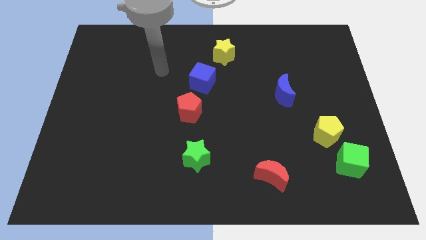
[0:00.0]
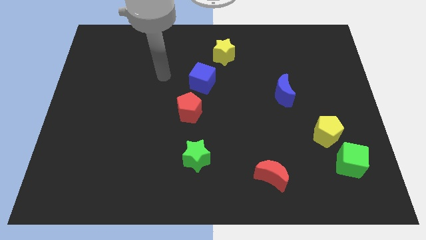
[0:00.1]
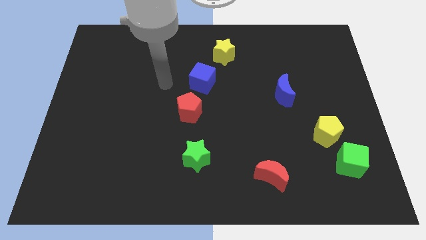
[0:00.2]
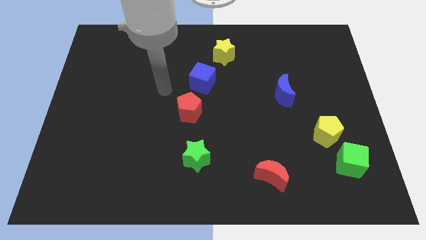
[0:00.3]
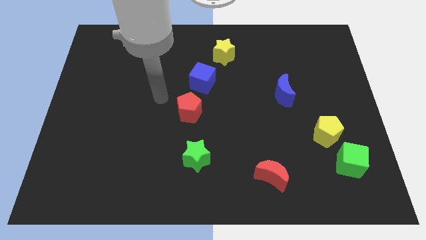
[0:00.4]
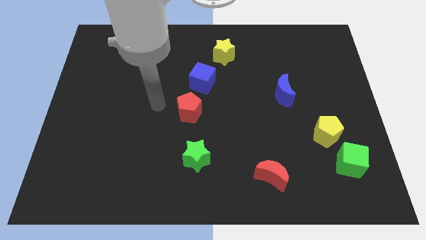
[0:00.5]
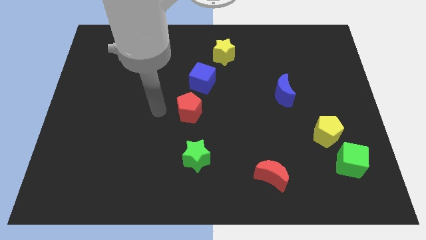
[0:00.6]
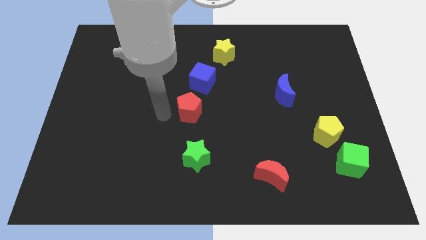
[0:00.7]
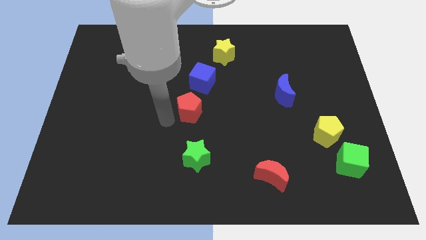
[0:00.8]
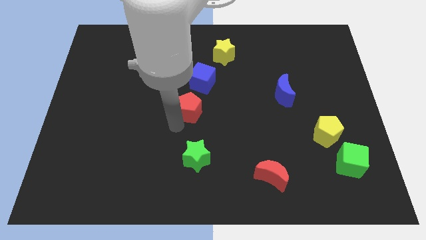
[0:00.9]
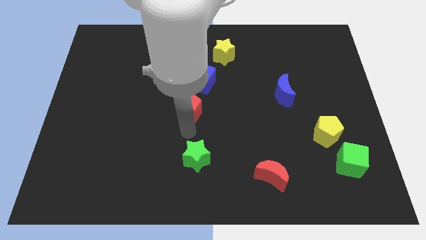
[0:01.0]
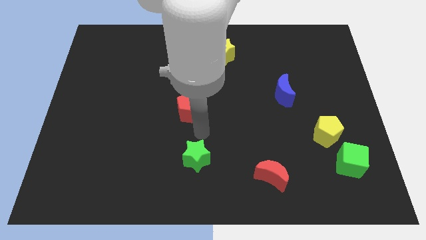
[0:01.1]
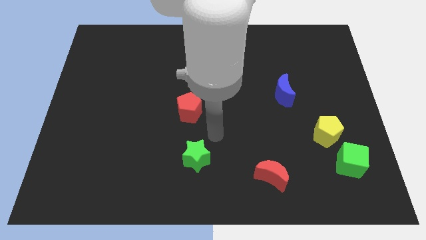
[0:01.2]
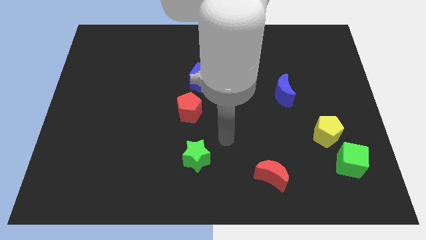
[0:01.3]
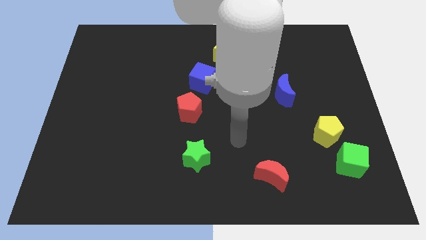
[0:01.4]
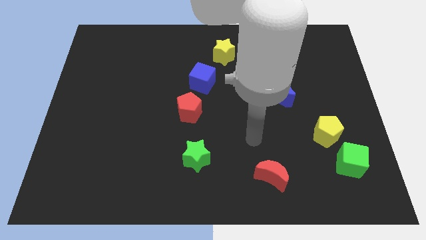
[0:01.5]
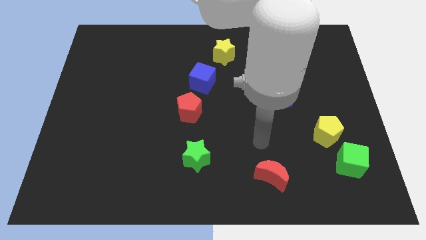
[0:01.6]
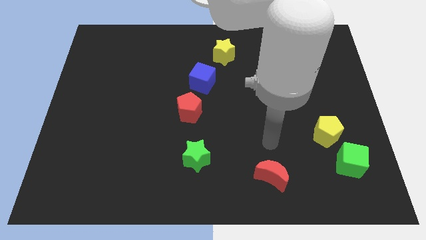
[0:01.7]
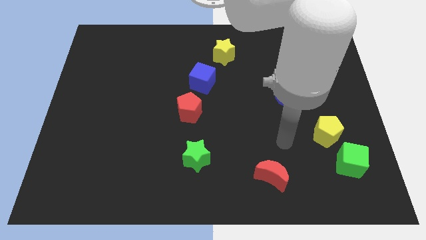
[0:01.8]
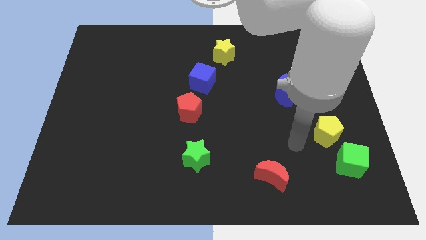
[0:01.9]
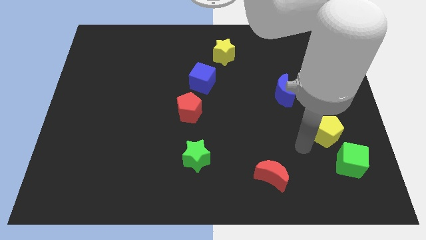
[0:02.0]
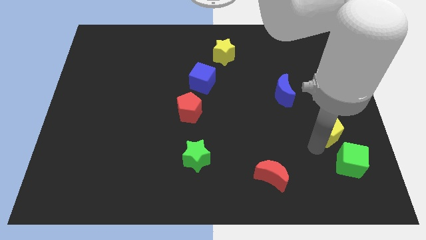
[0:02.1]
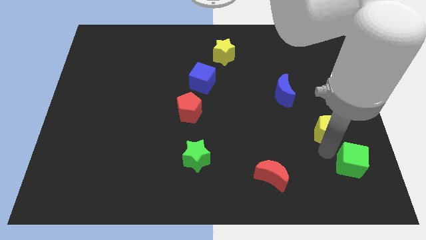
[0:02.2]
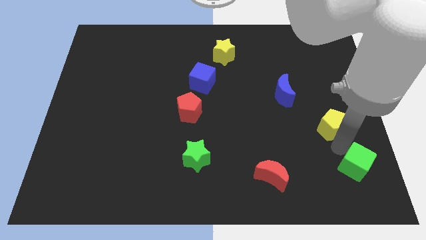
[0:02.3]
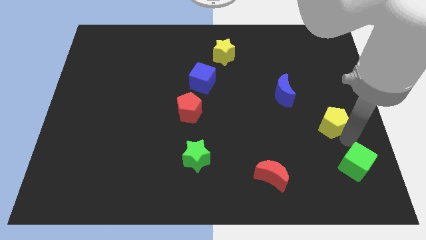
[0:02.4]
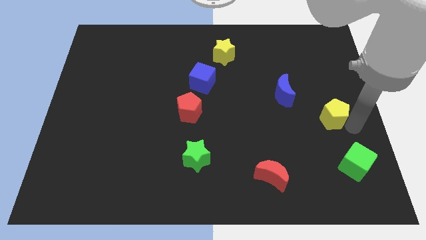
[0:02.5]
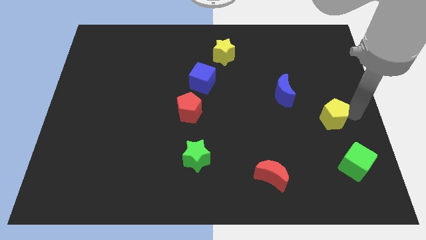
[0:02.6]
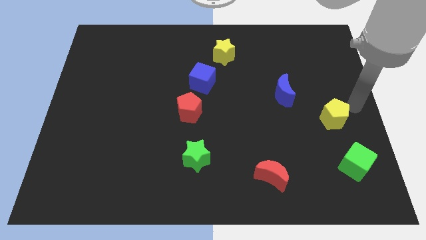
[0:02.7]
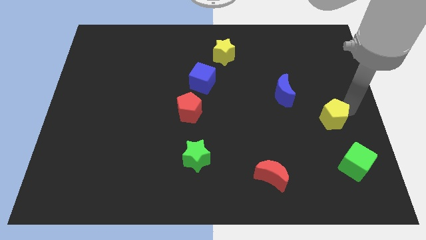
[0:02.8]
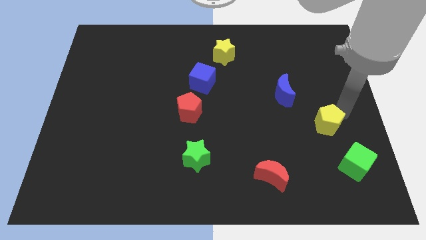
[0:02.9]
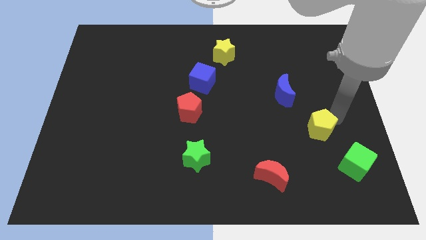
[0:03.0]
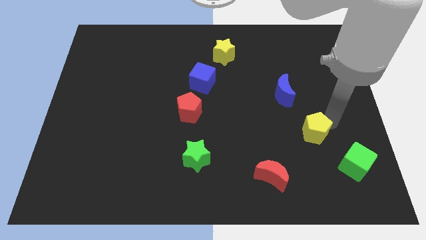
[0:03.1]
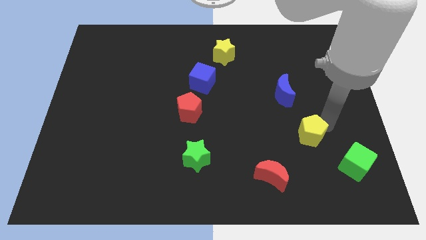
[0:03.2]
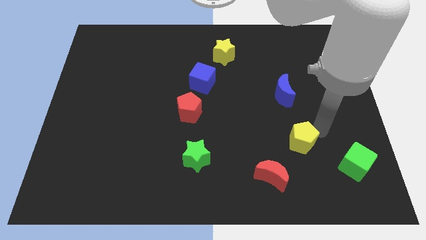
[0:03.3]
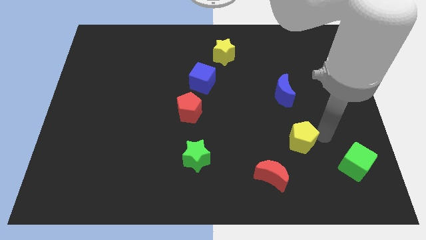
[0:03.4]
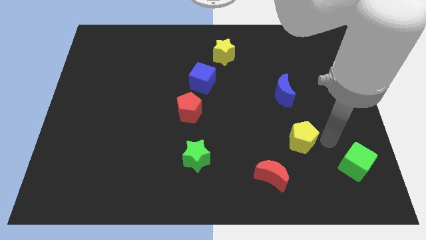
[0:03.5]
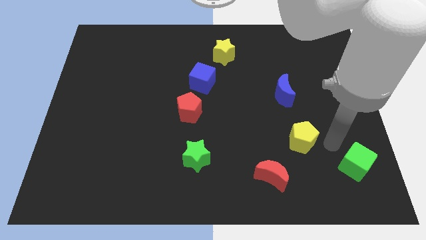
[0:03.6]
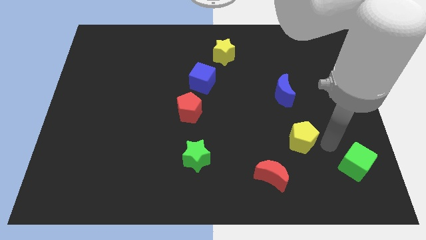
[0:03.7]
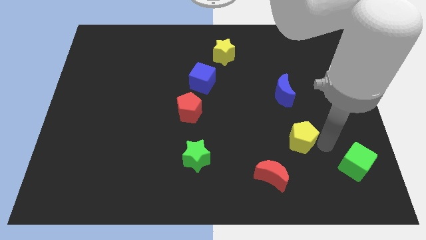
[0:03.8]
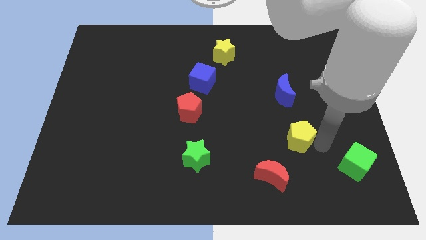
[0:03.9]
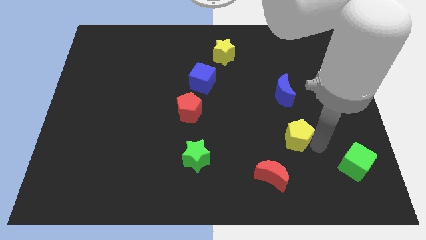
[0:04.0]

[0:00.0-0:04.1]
move the yellow pentagon a bit to the left

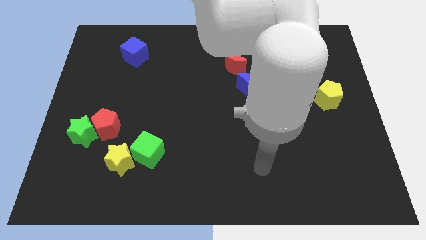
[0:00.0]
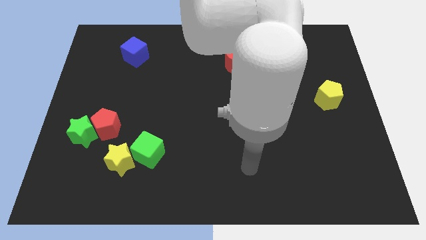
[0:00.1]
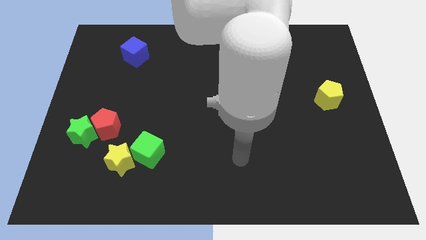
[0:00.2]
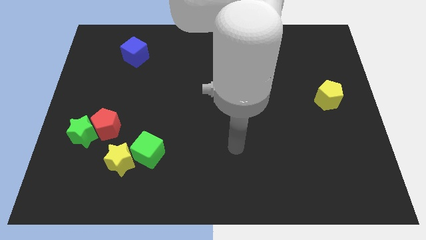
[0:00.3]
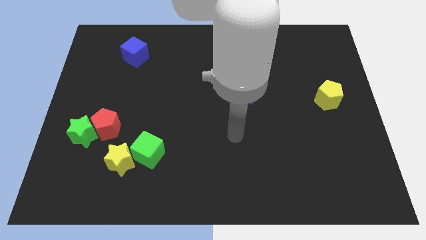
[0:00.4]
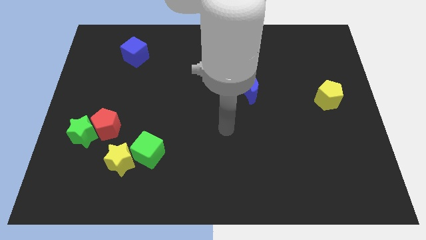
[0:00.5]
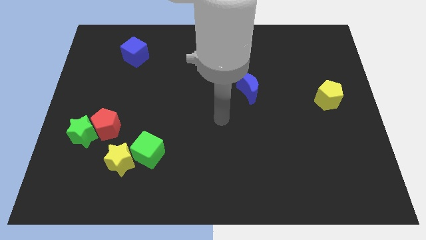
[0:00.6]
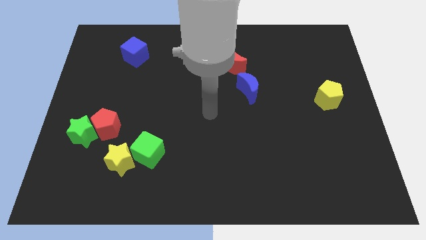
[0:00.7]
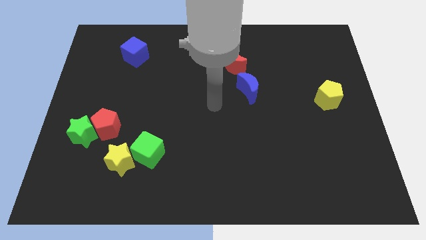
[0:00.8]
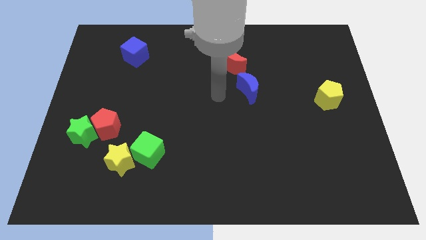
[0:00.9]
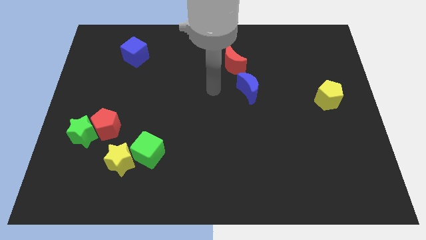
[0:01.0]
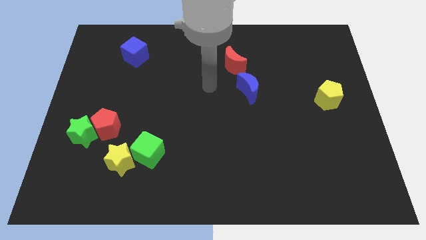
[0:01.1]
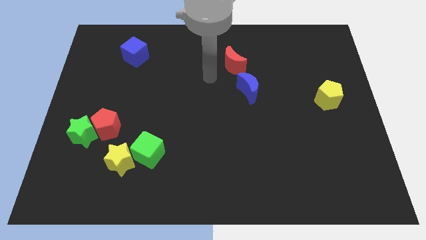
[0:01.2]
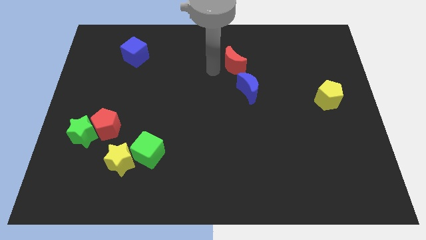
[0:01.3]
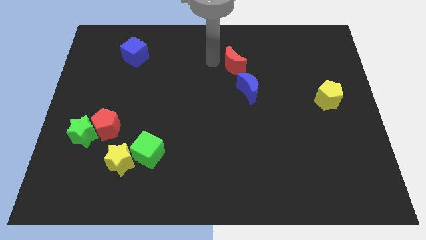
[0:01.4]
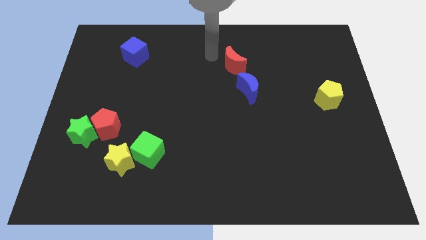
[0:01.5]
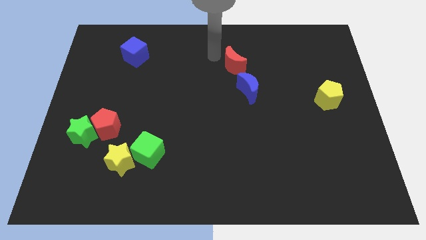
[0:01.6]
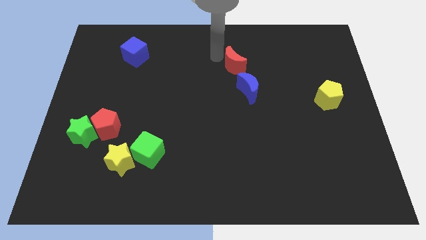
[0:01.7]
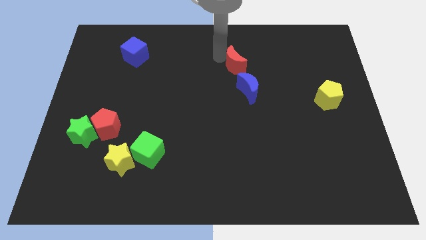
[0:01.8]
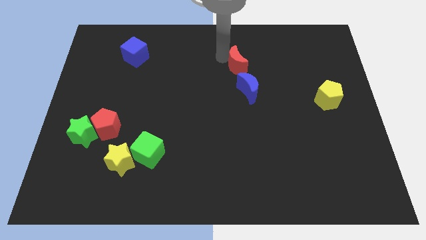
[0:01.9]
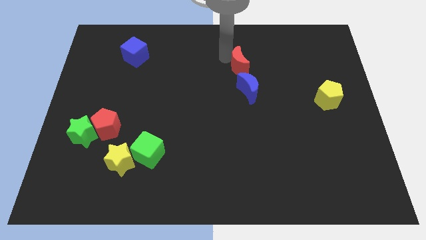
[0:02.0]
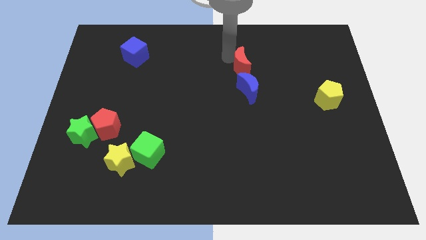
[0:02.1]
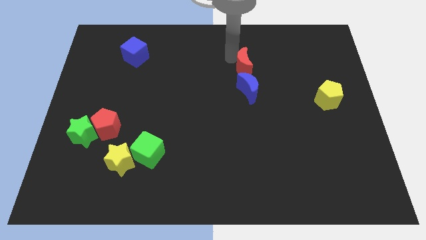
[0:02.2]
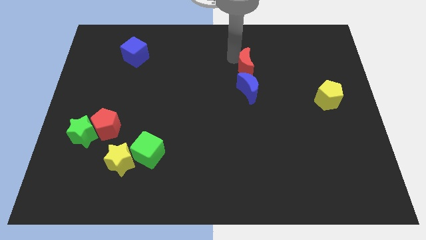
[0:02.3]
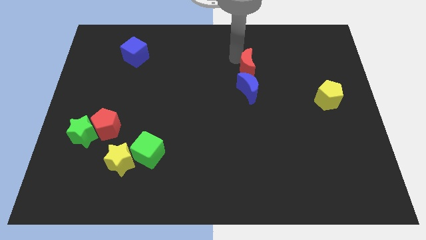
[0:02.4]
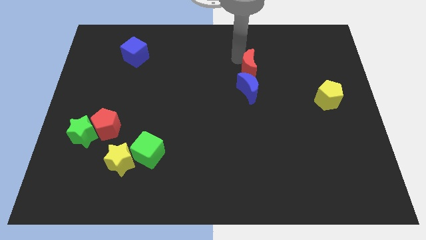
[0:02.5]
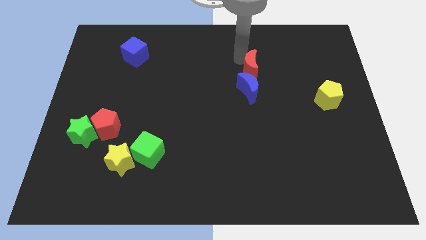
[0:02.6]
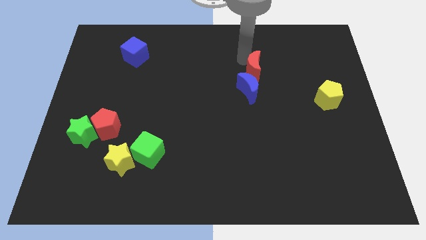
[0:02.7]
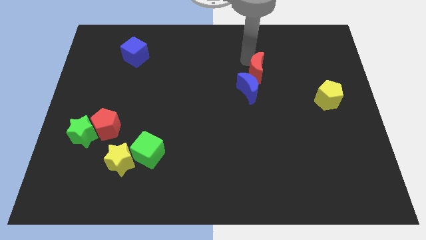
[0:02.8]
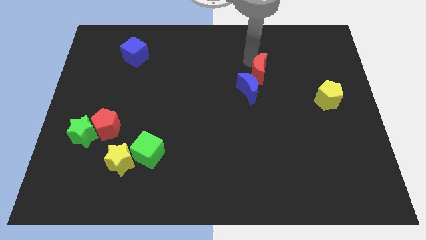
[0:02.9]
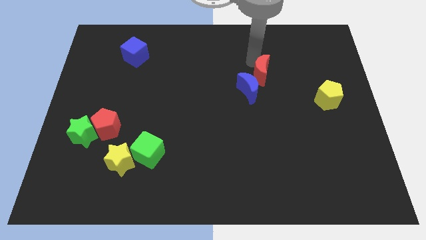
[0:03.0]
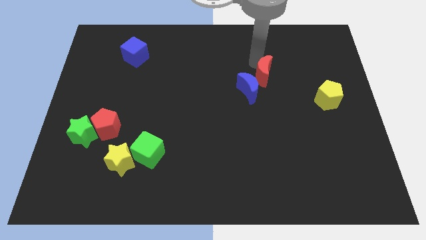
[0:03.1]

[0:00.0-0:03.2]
push the red moon downwards and to the right a little bit
